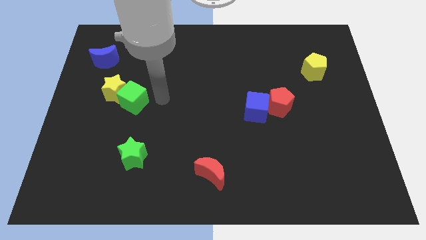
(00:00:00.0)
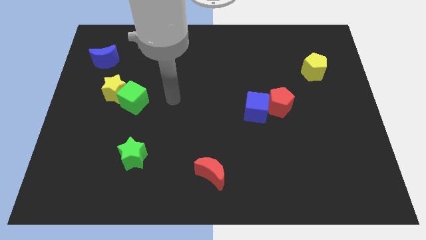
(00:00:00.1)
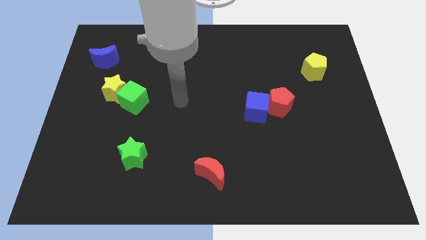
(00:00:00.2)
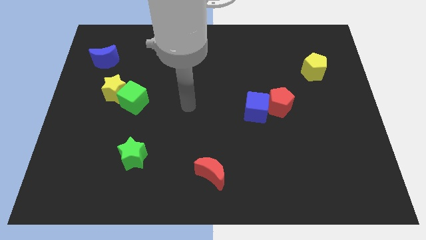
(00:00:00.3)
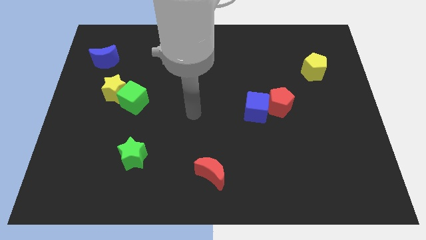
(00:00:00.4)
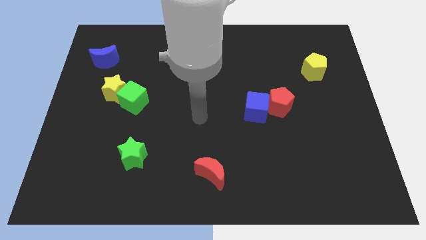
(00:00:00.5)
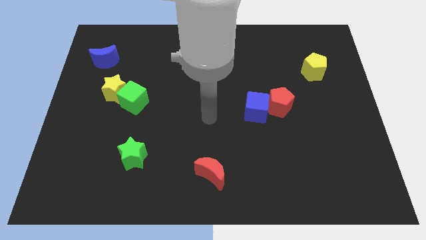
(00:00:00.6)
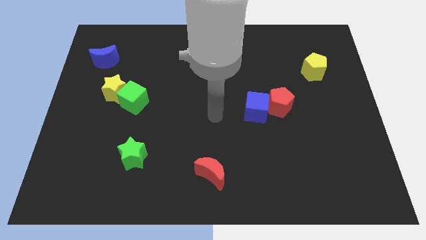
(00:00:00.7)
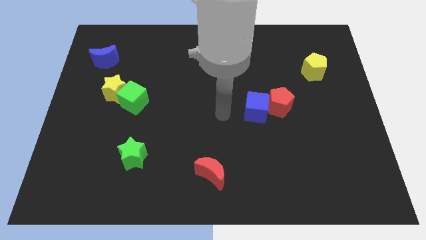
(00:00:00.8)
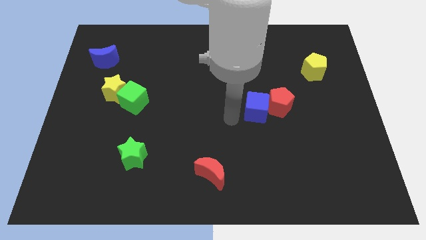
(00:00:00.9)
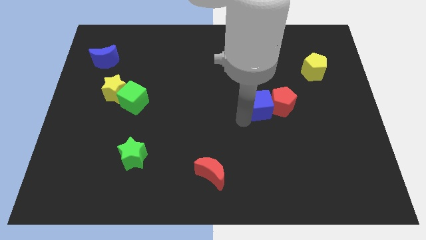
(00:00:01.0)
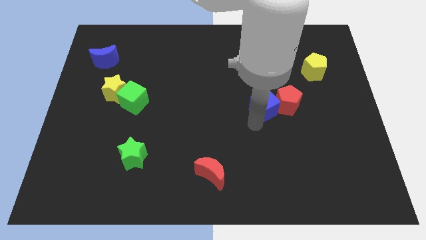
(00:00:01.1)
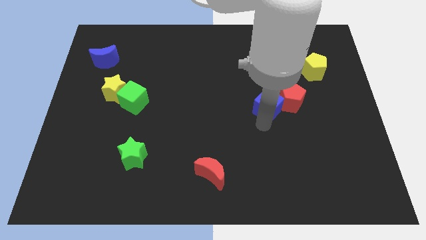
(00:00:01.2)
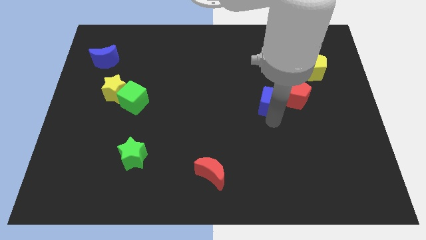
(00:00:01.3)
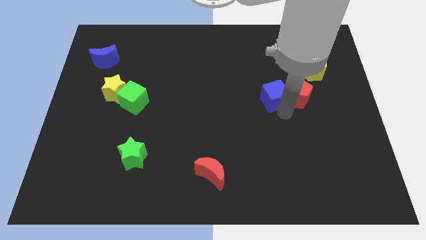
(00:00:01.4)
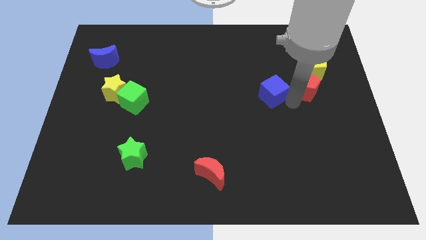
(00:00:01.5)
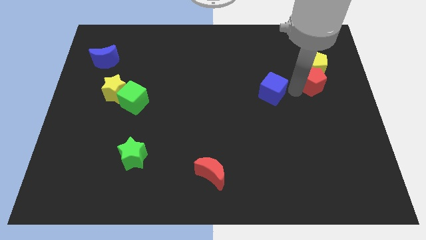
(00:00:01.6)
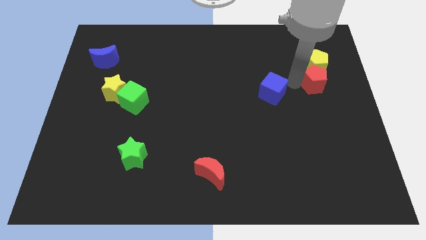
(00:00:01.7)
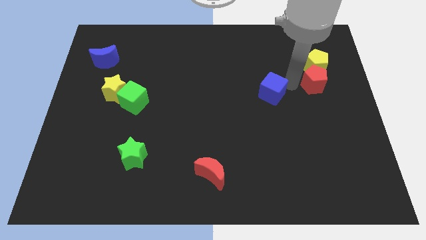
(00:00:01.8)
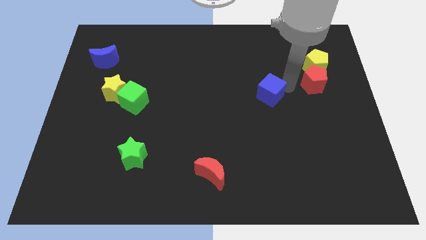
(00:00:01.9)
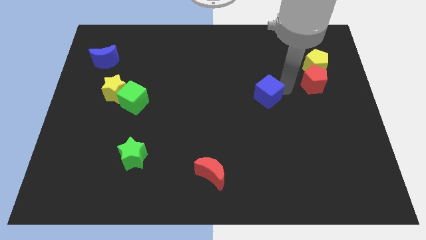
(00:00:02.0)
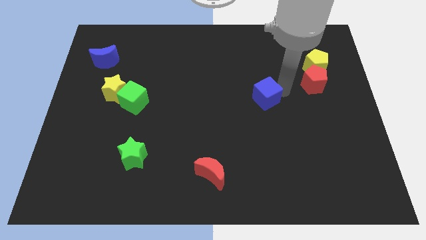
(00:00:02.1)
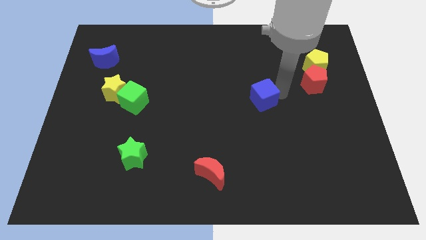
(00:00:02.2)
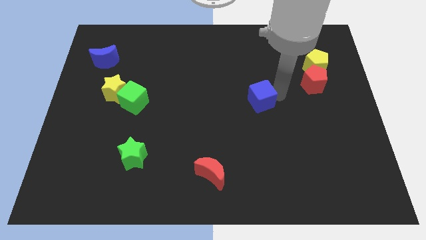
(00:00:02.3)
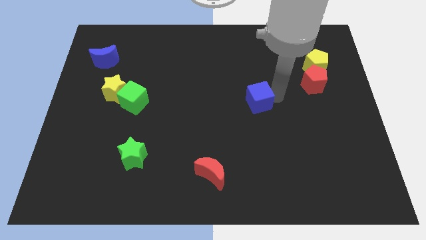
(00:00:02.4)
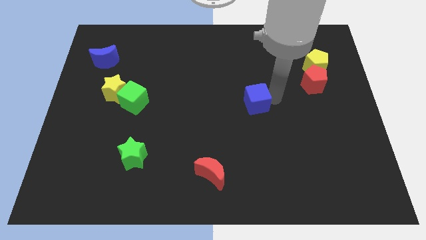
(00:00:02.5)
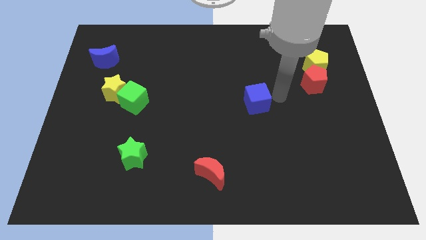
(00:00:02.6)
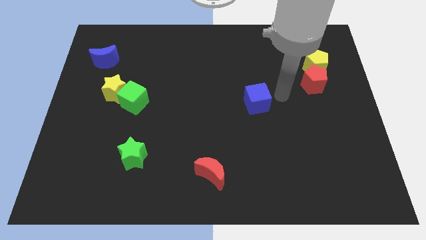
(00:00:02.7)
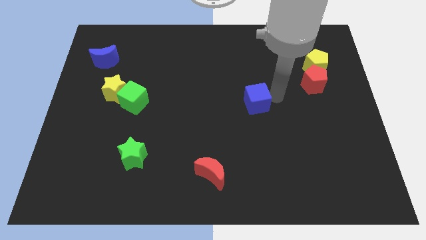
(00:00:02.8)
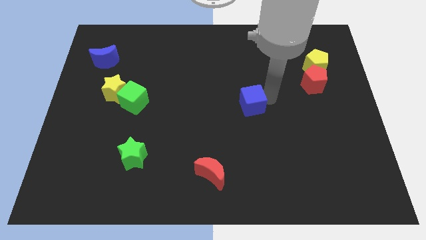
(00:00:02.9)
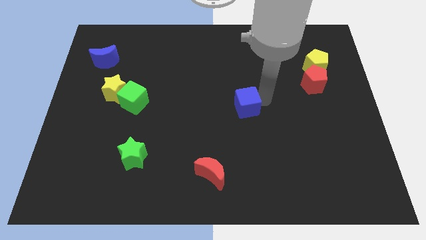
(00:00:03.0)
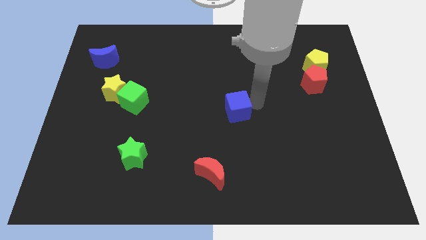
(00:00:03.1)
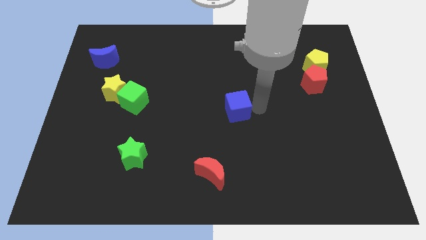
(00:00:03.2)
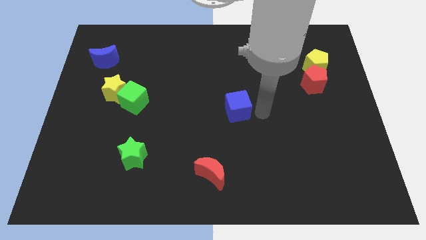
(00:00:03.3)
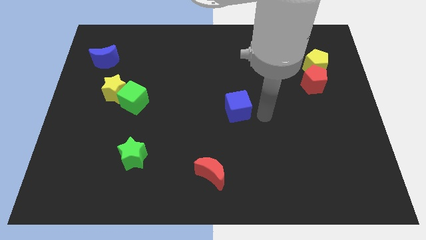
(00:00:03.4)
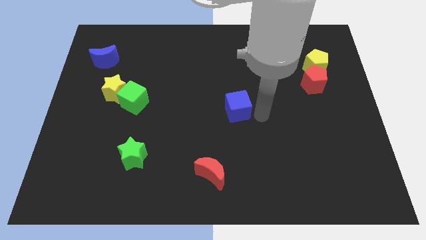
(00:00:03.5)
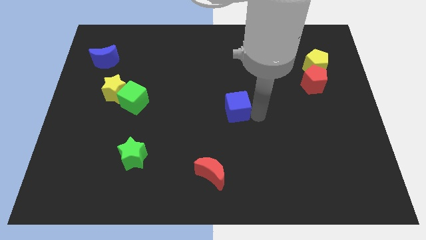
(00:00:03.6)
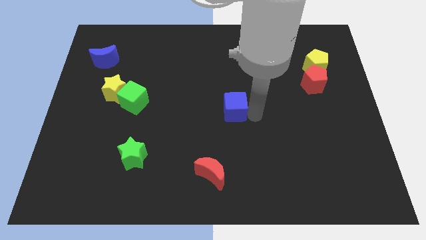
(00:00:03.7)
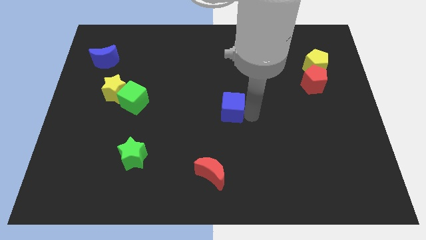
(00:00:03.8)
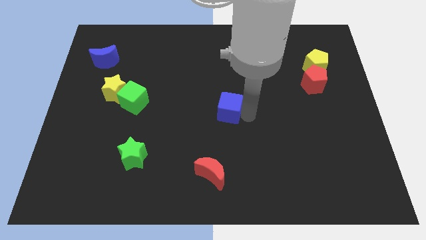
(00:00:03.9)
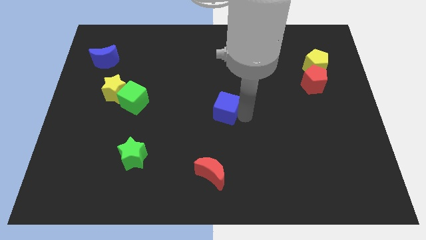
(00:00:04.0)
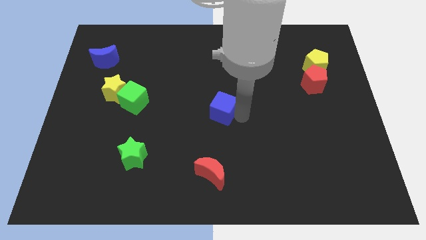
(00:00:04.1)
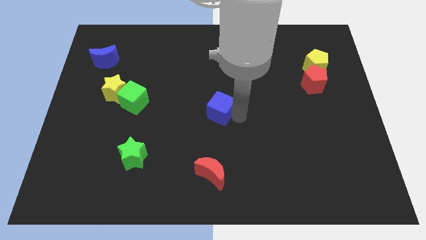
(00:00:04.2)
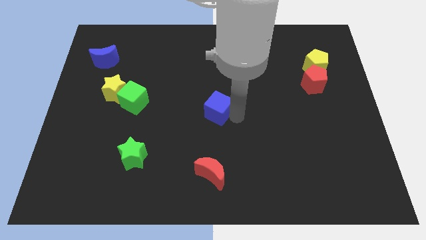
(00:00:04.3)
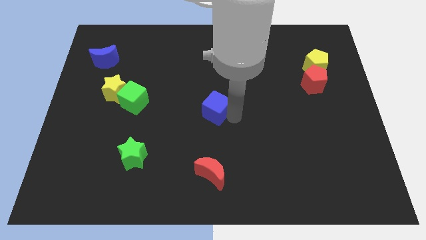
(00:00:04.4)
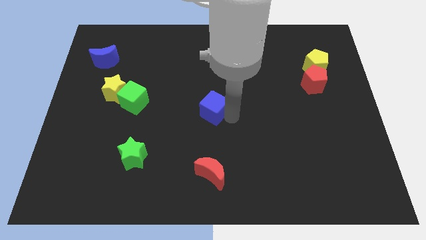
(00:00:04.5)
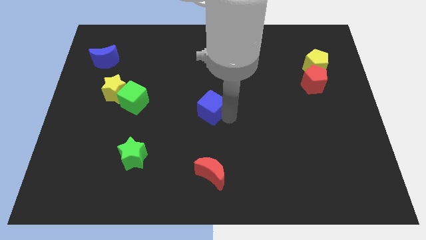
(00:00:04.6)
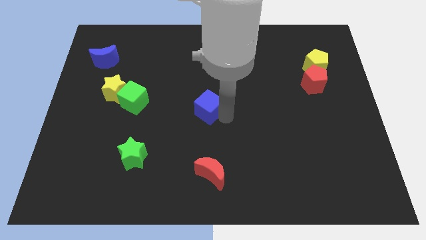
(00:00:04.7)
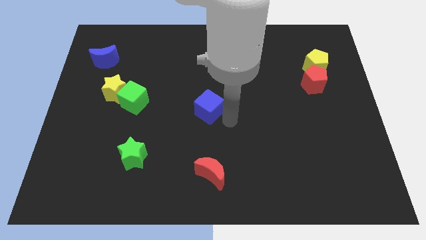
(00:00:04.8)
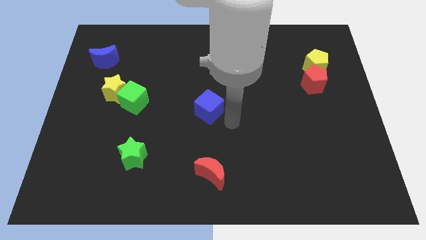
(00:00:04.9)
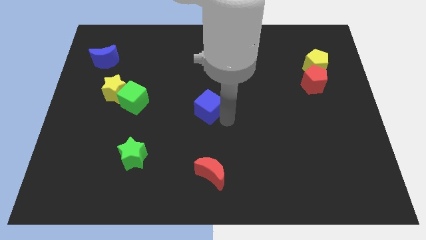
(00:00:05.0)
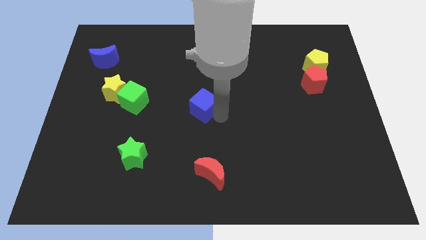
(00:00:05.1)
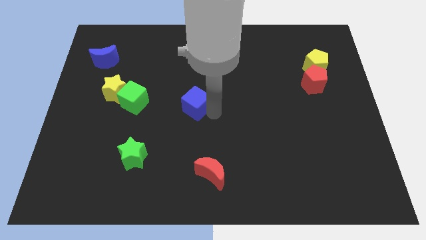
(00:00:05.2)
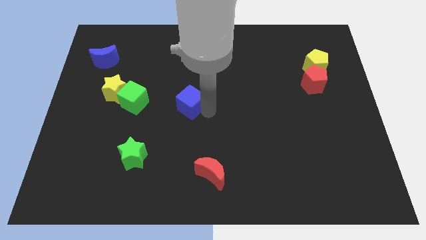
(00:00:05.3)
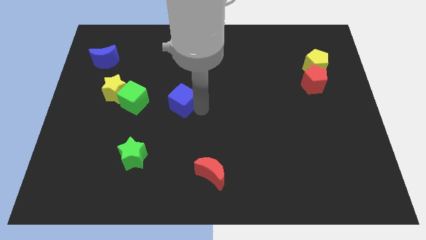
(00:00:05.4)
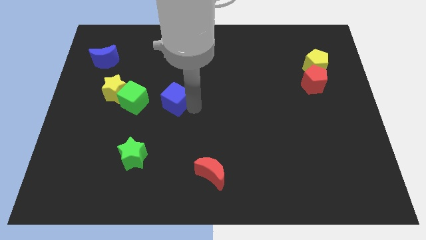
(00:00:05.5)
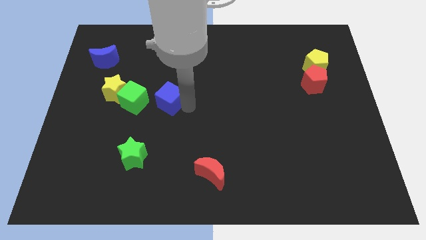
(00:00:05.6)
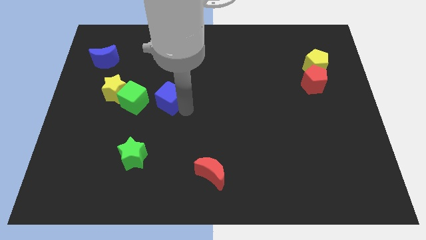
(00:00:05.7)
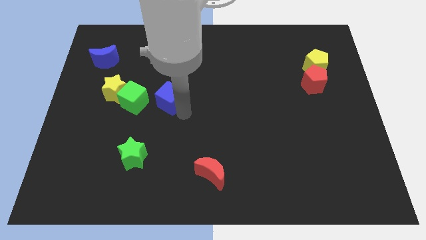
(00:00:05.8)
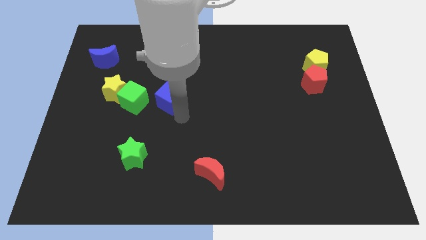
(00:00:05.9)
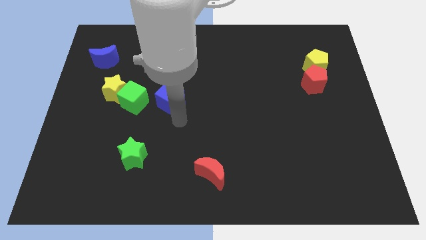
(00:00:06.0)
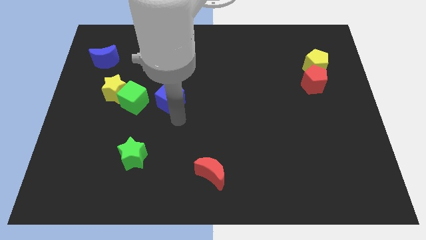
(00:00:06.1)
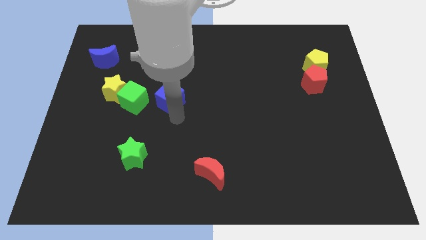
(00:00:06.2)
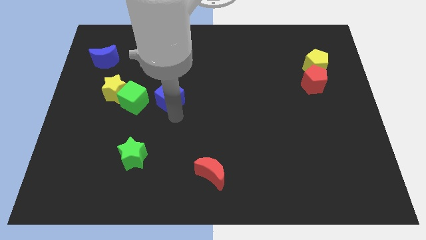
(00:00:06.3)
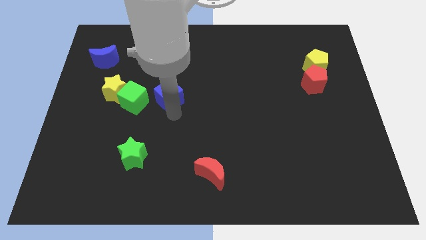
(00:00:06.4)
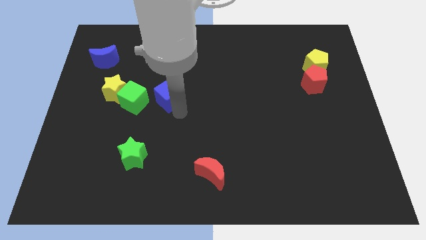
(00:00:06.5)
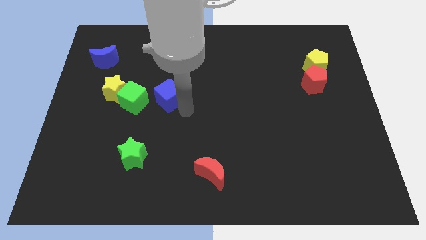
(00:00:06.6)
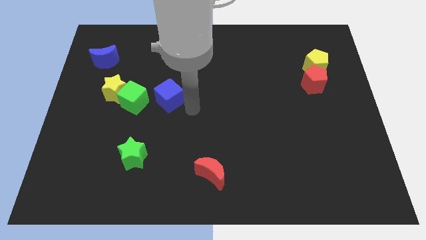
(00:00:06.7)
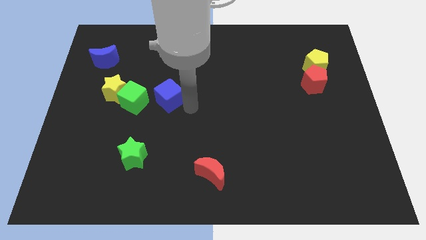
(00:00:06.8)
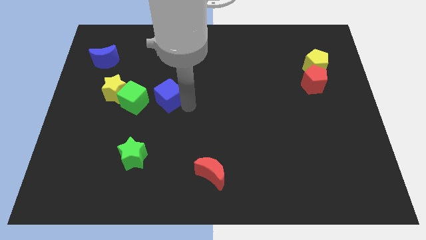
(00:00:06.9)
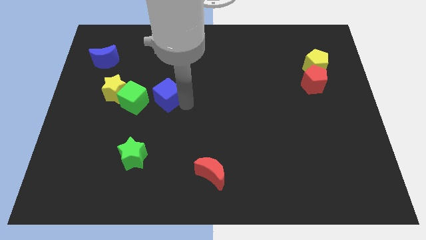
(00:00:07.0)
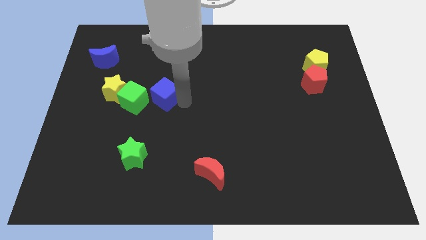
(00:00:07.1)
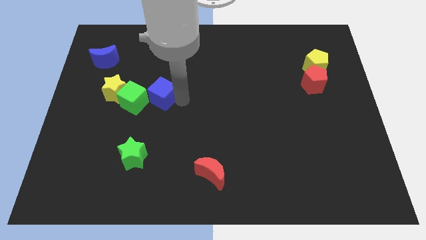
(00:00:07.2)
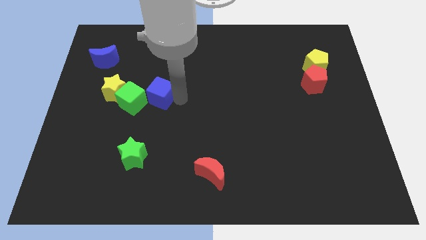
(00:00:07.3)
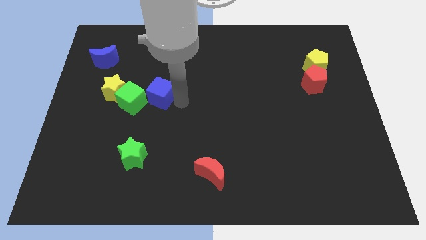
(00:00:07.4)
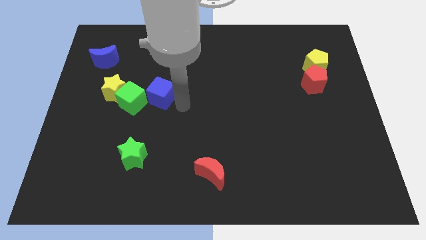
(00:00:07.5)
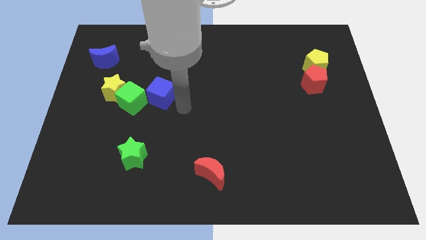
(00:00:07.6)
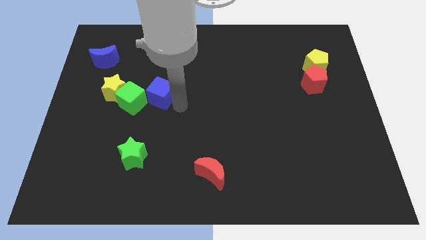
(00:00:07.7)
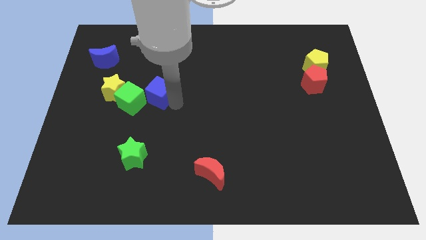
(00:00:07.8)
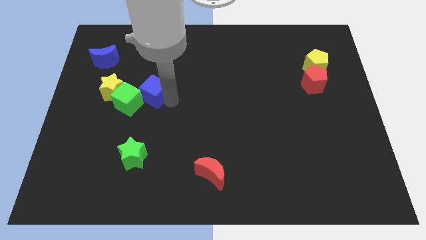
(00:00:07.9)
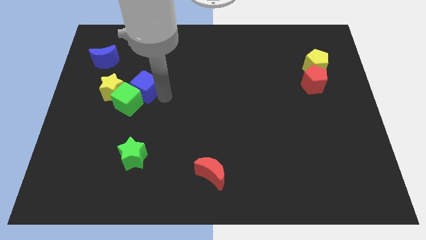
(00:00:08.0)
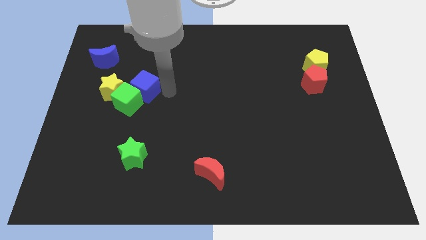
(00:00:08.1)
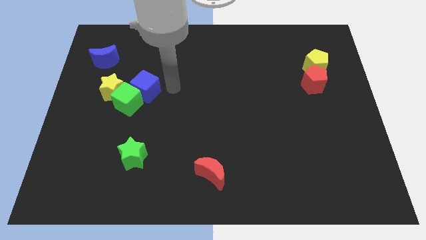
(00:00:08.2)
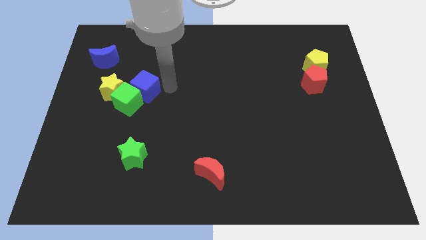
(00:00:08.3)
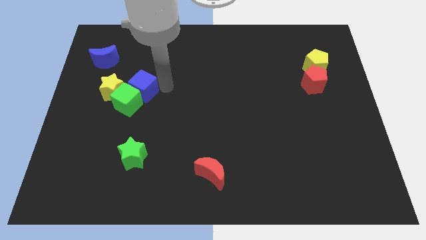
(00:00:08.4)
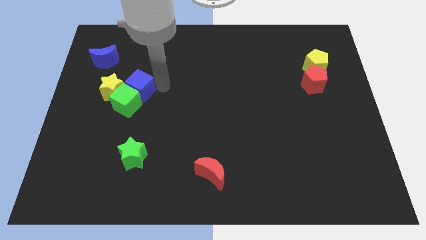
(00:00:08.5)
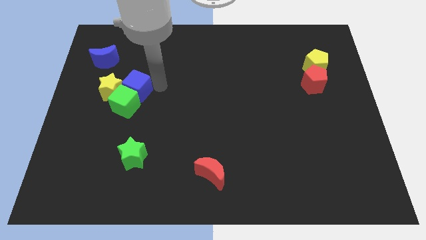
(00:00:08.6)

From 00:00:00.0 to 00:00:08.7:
move the blue cube close to the yellow star
